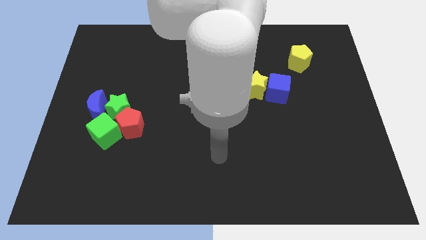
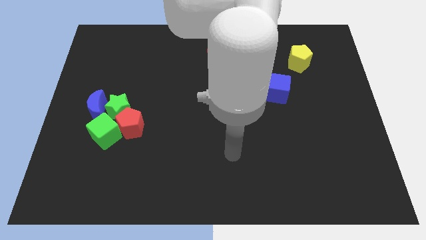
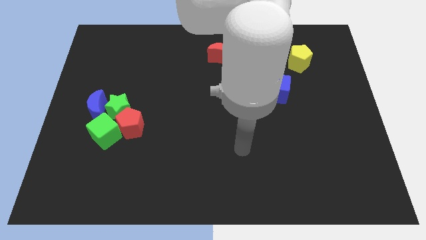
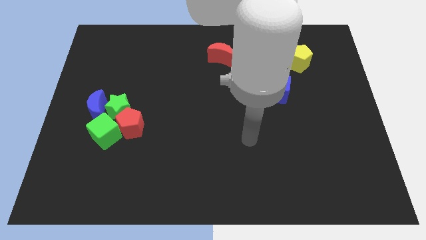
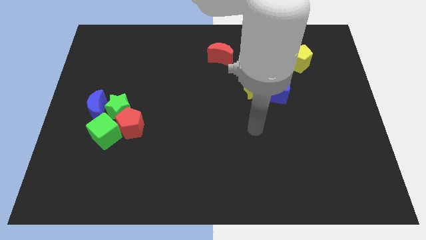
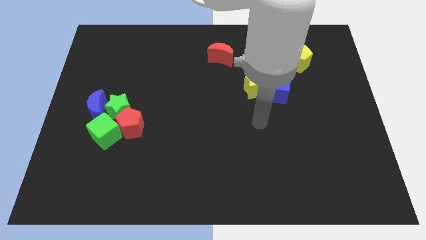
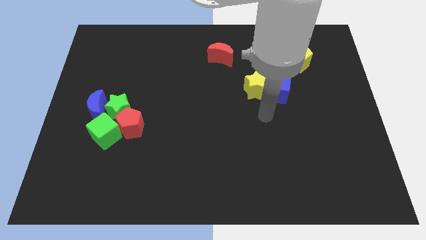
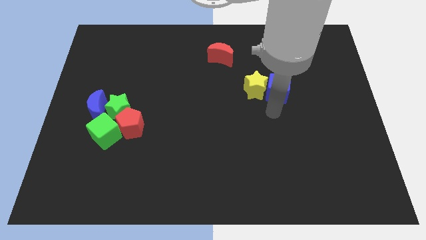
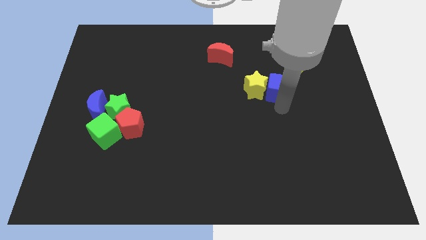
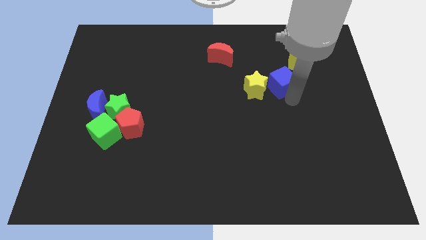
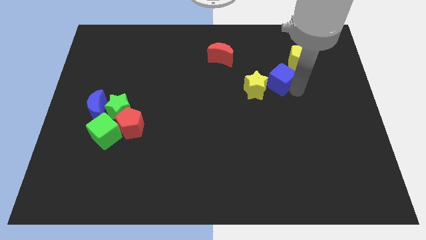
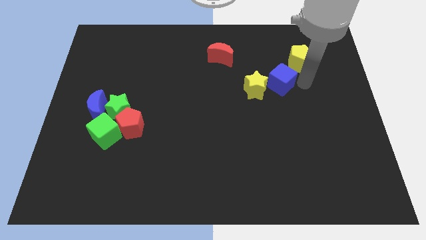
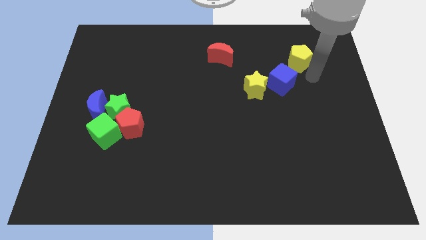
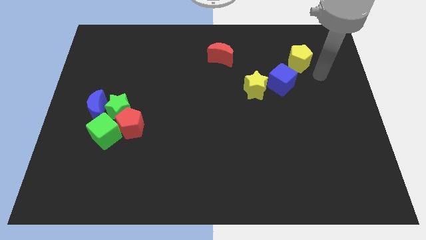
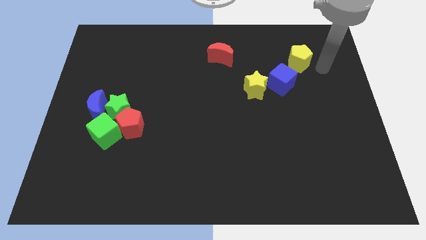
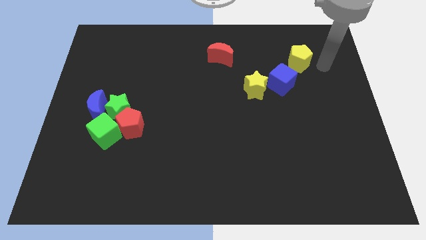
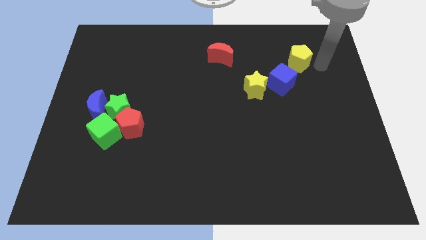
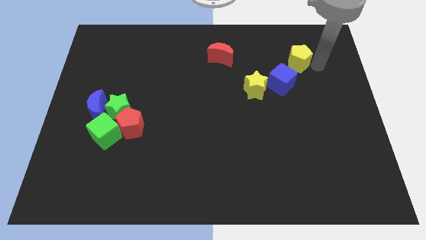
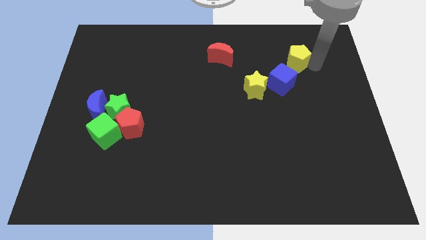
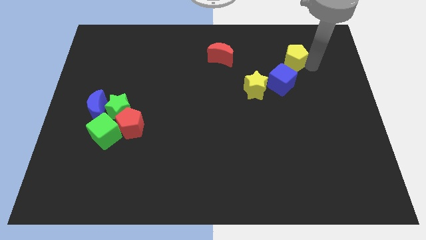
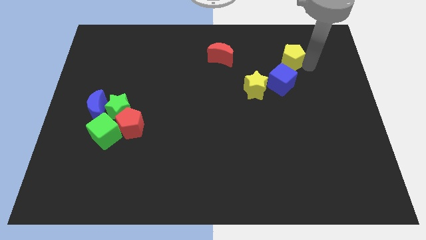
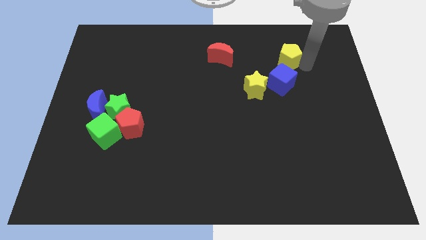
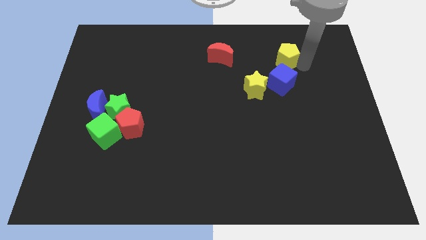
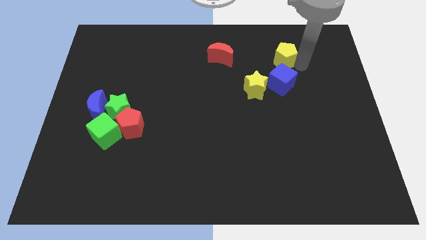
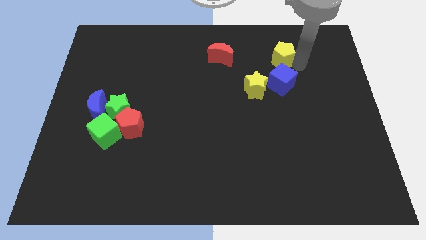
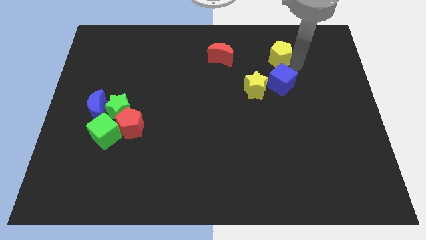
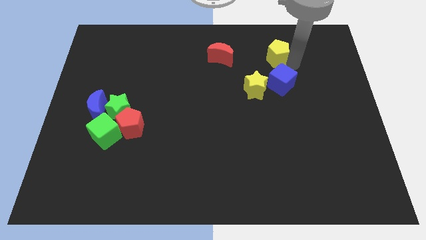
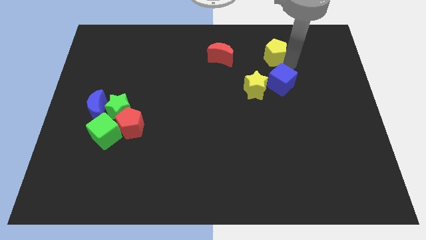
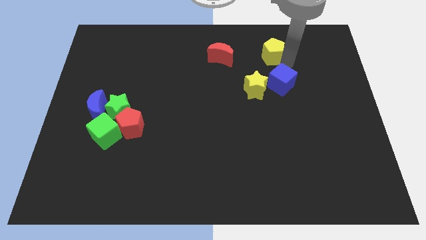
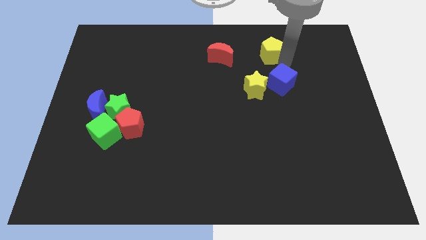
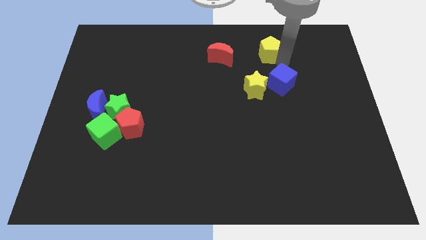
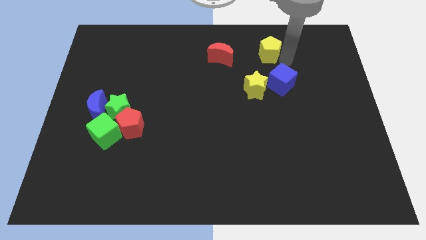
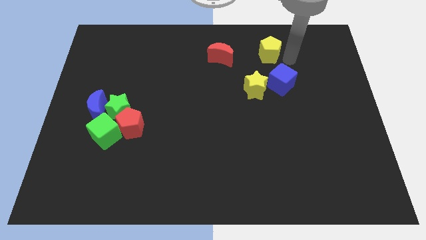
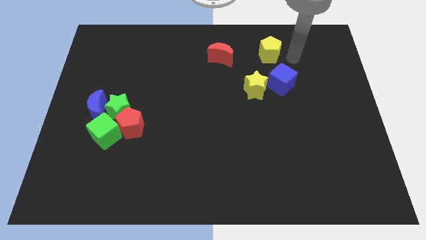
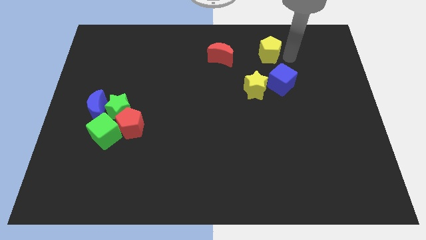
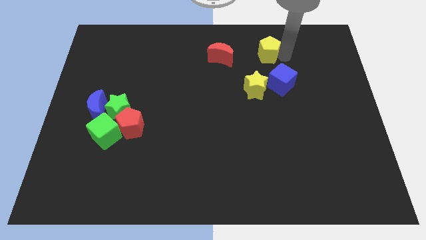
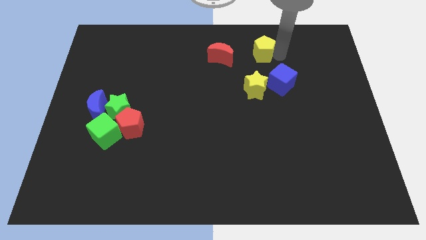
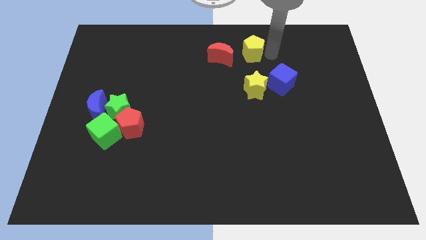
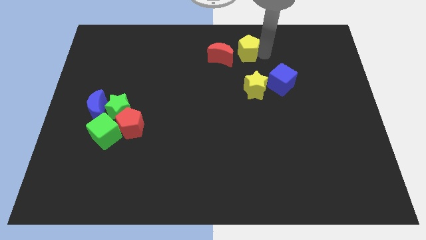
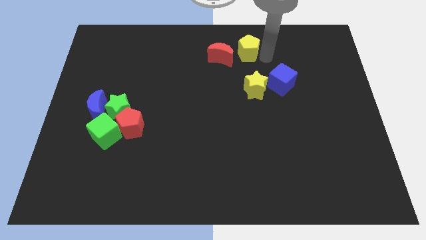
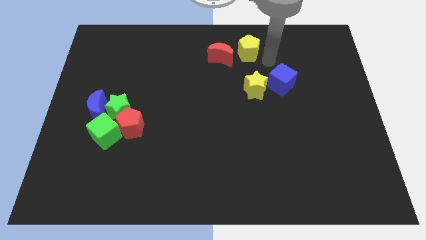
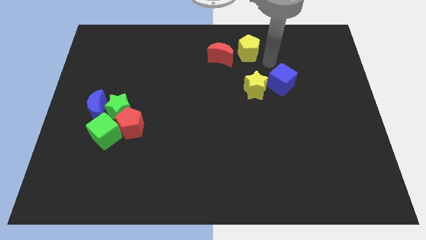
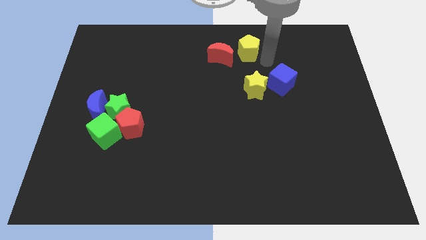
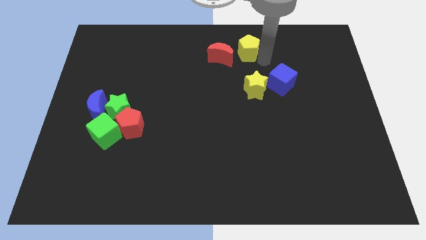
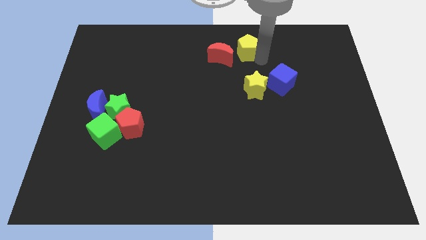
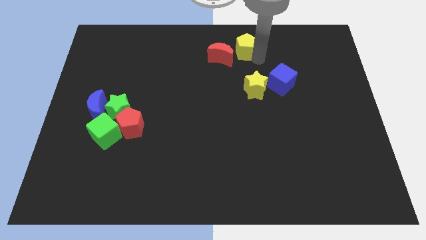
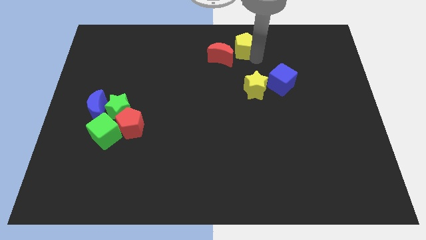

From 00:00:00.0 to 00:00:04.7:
move the yellow pentagon to the top side

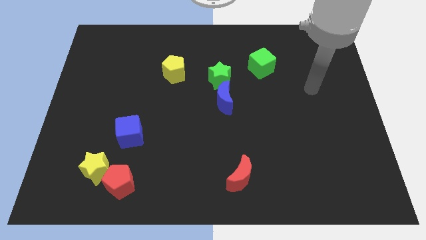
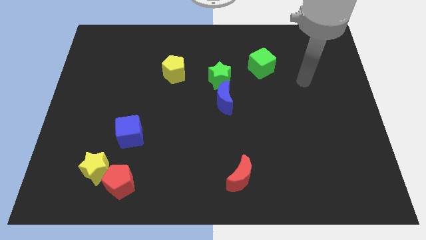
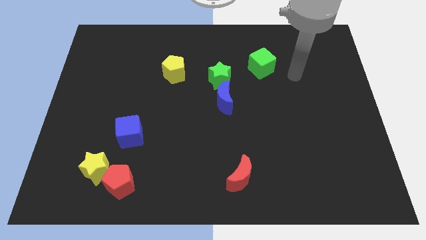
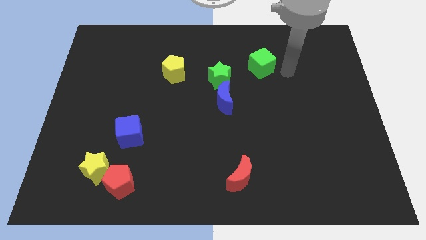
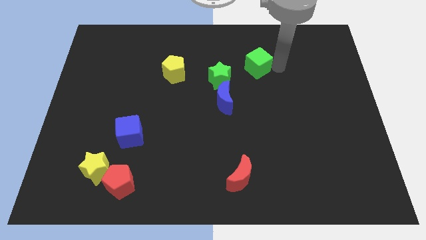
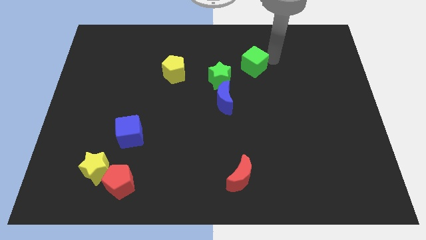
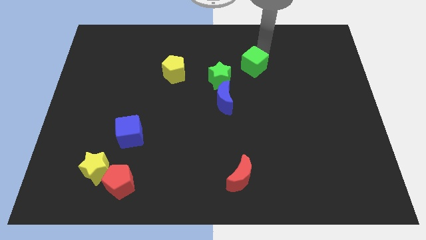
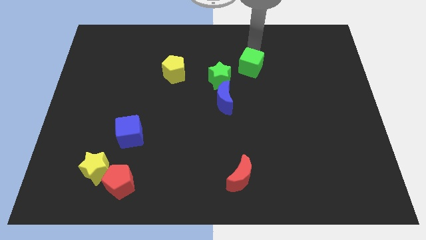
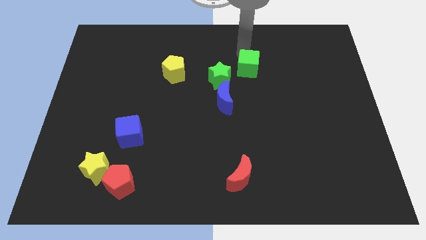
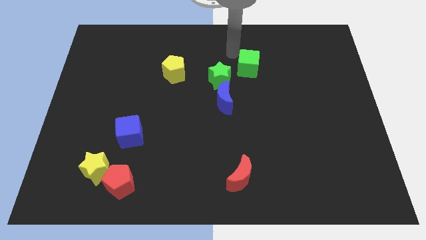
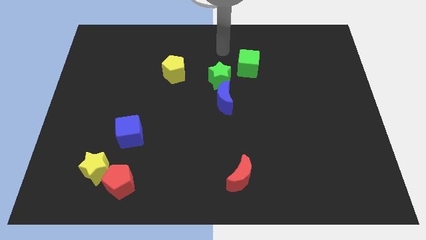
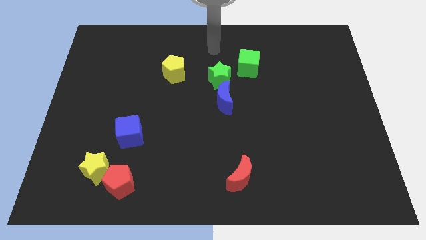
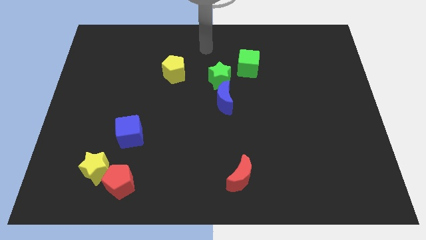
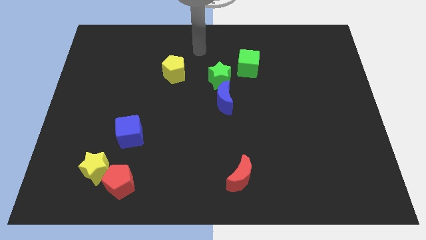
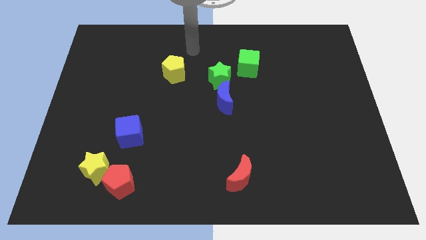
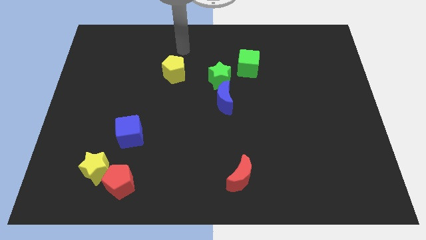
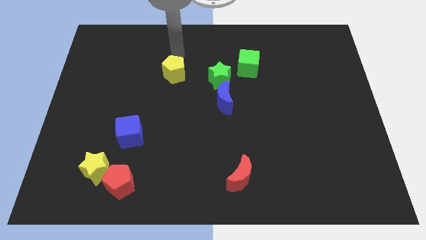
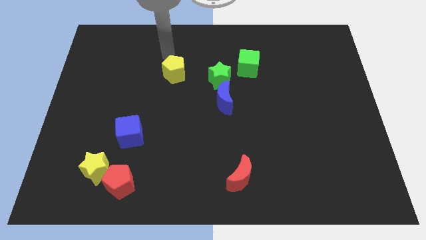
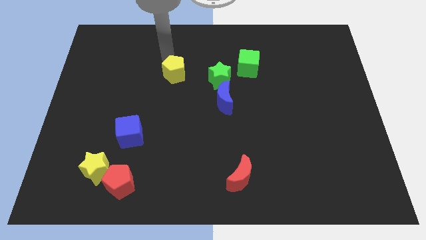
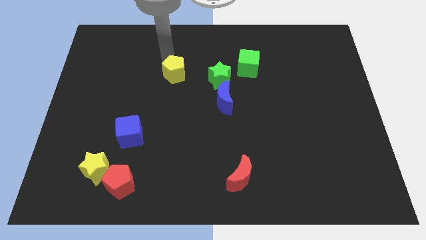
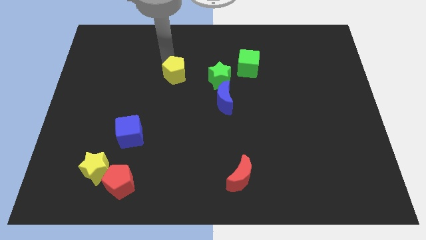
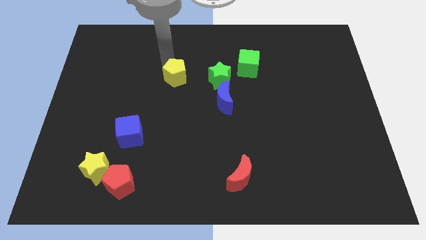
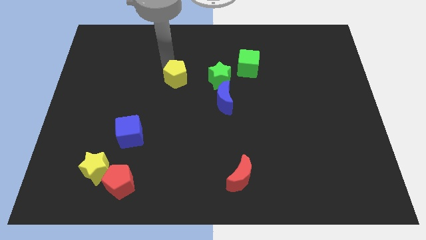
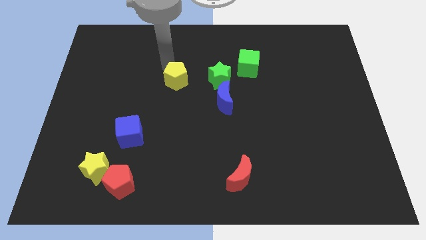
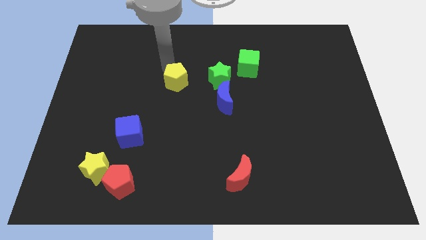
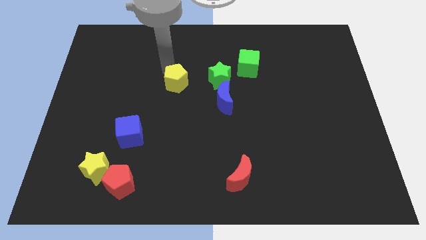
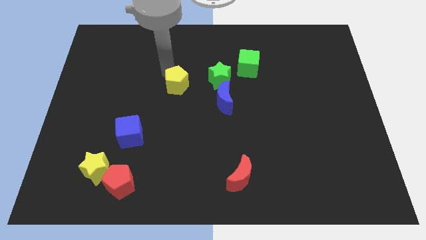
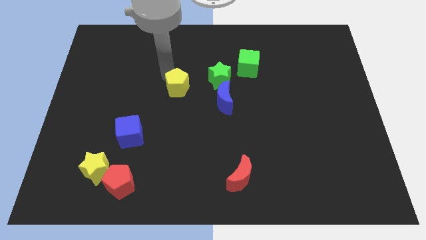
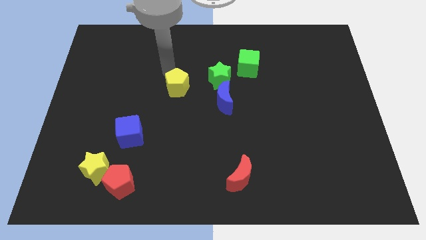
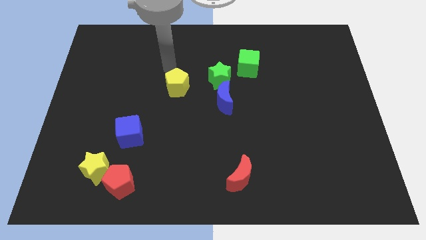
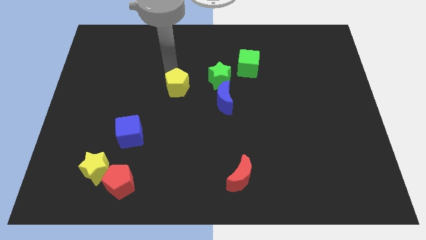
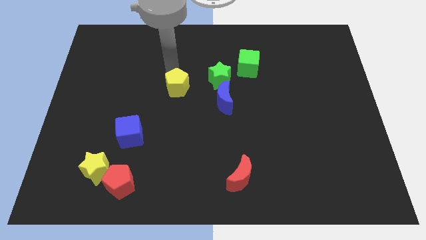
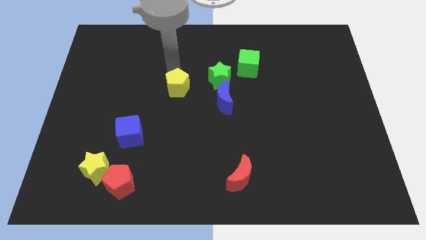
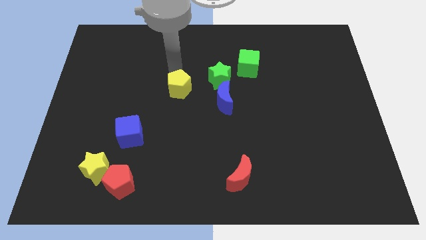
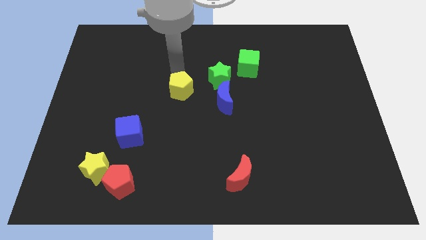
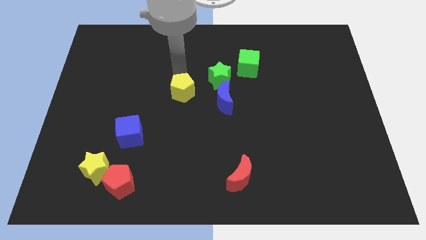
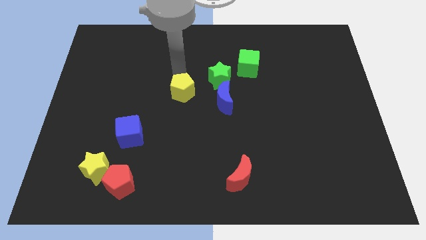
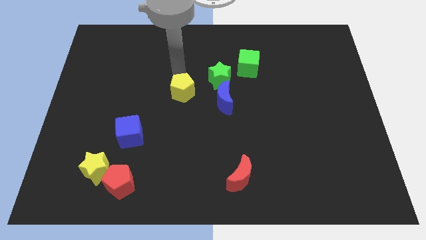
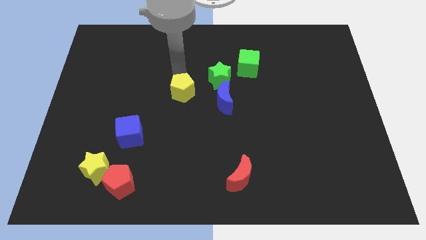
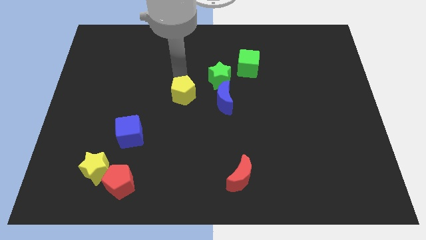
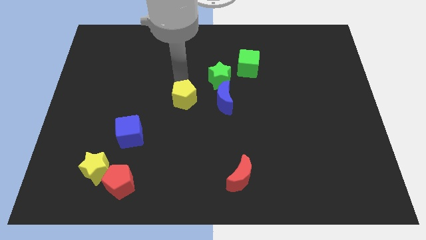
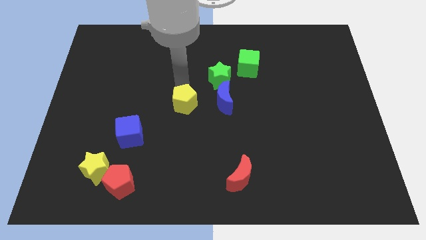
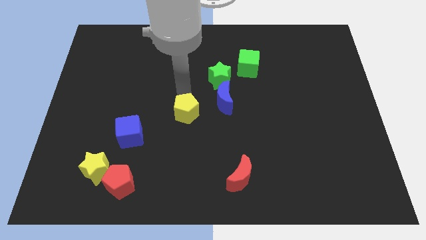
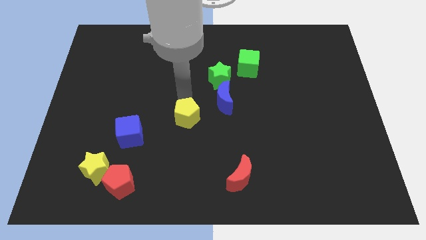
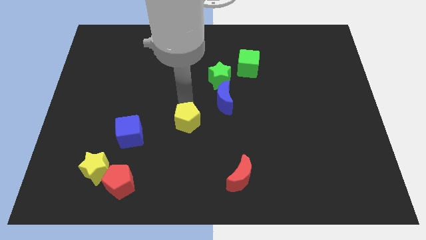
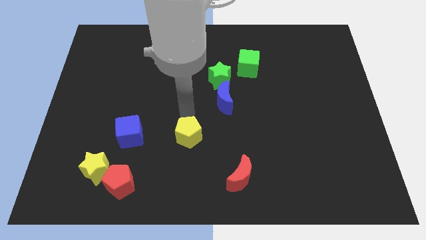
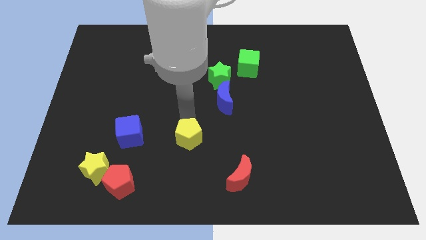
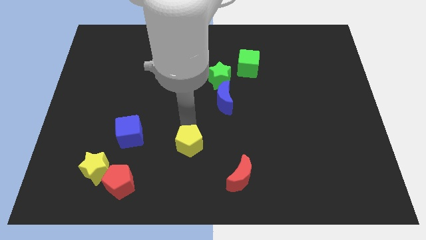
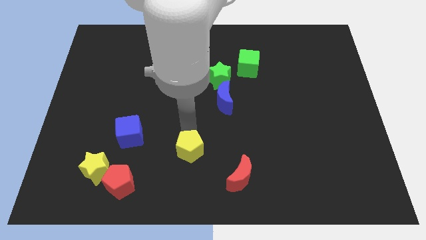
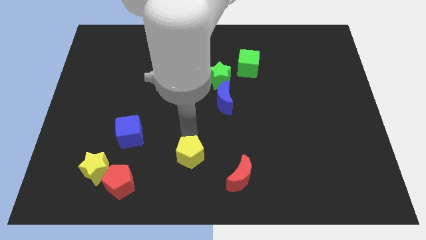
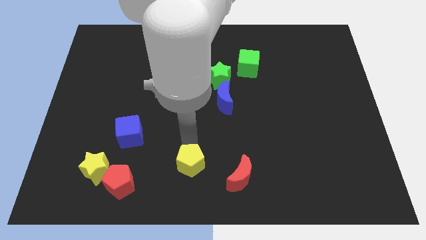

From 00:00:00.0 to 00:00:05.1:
put the yellow pentagon to the bottom
